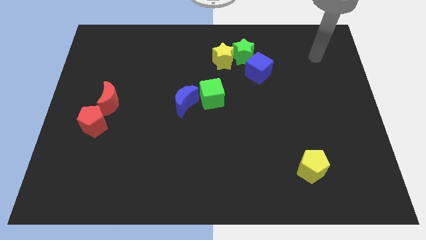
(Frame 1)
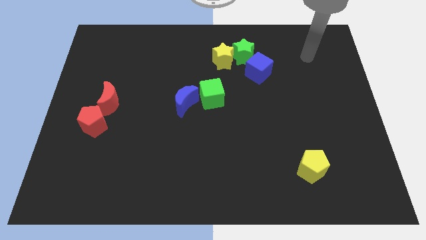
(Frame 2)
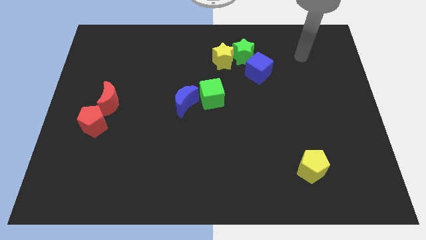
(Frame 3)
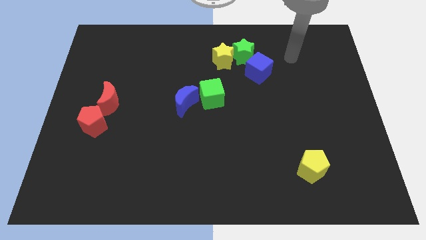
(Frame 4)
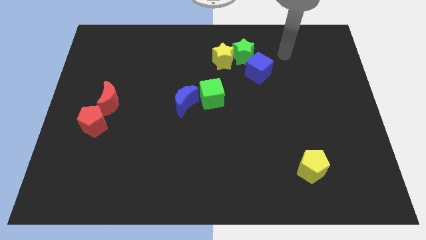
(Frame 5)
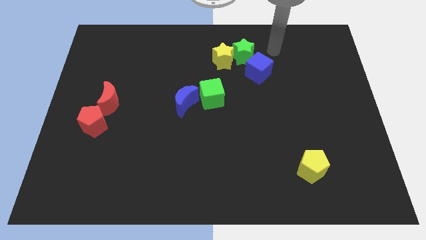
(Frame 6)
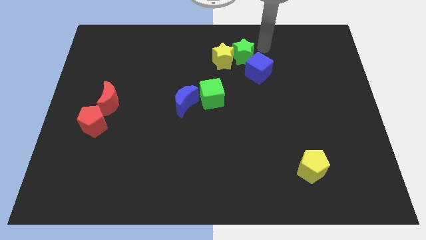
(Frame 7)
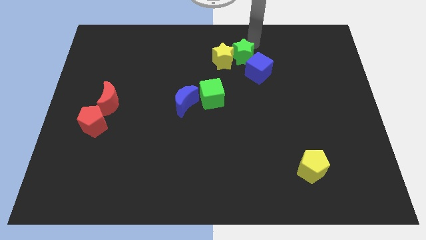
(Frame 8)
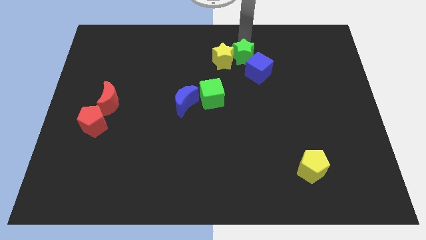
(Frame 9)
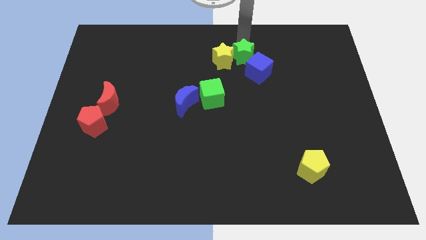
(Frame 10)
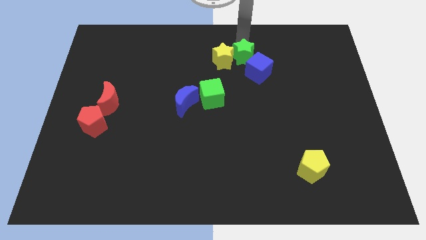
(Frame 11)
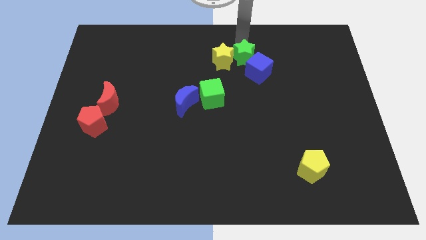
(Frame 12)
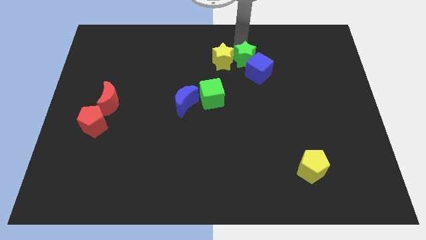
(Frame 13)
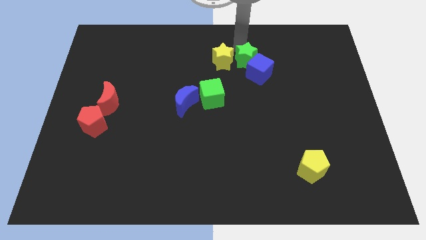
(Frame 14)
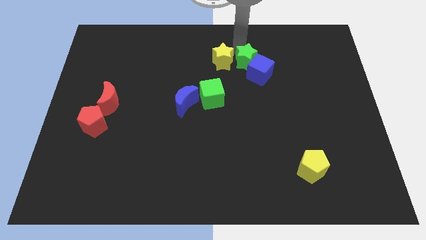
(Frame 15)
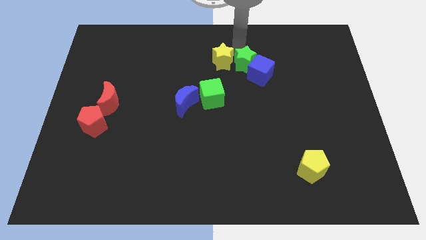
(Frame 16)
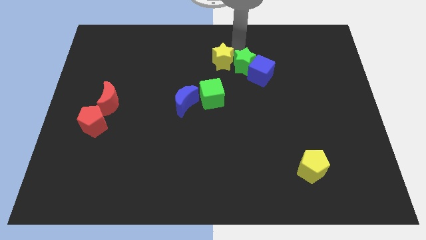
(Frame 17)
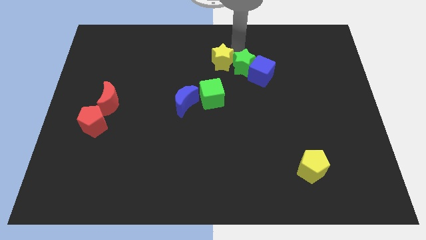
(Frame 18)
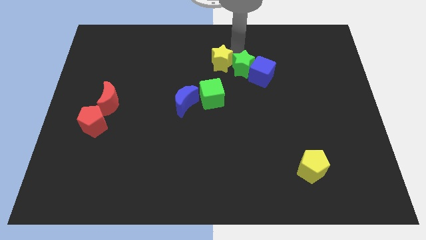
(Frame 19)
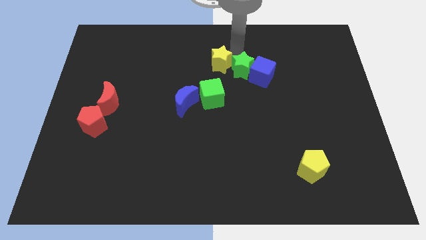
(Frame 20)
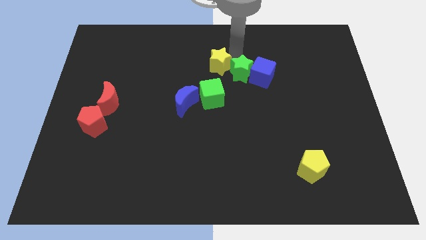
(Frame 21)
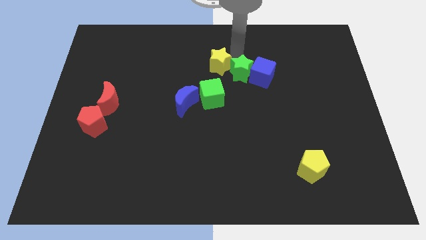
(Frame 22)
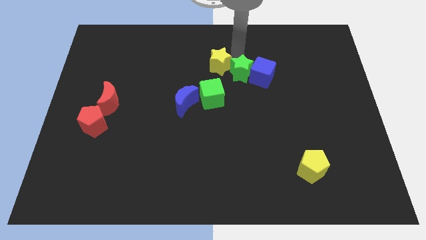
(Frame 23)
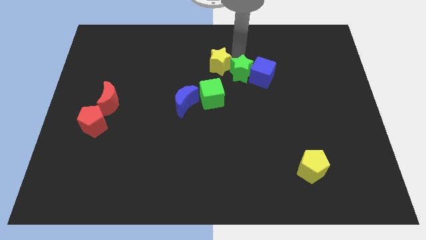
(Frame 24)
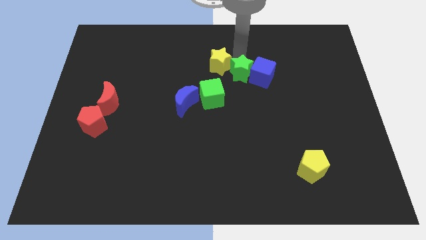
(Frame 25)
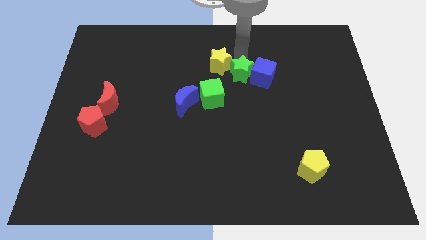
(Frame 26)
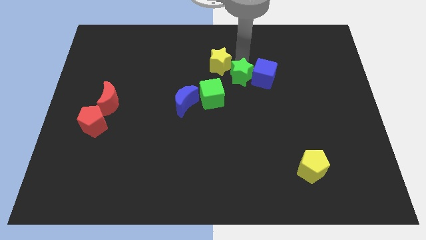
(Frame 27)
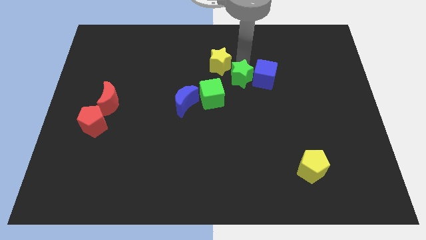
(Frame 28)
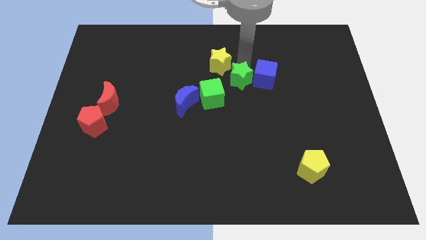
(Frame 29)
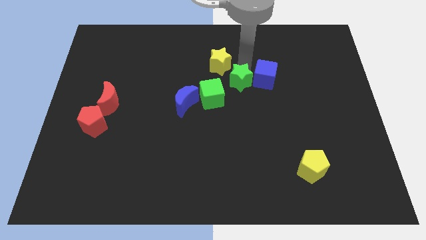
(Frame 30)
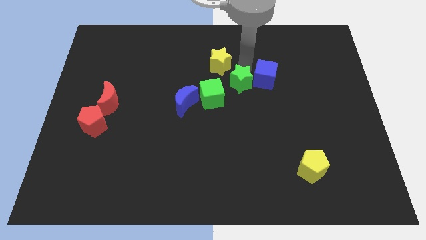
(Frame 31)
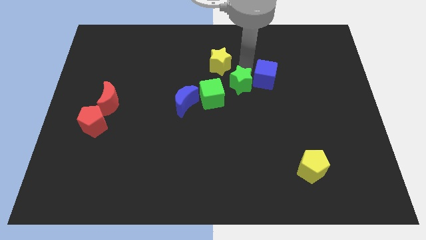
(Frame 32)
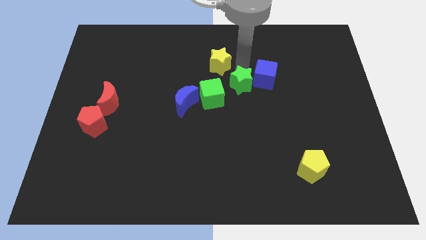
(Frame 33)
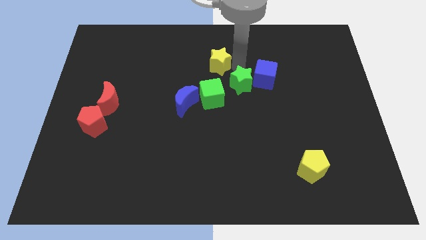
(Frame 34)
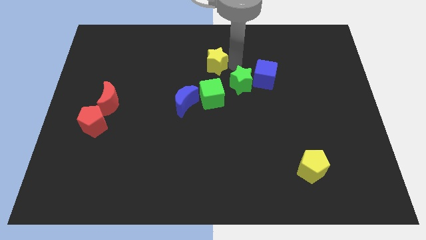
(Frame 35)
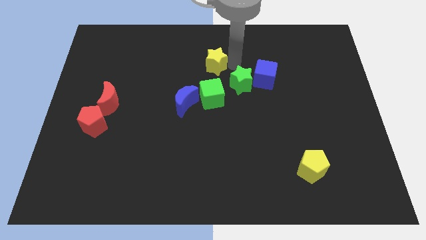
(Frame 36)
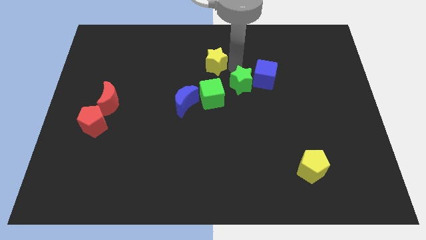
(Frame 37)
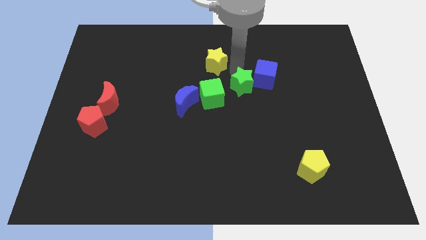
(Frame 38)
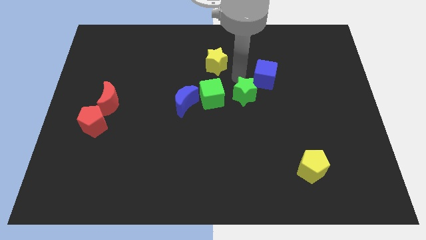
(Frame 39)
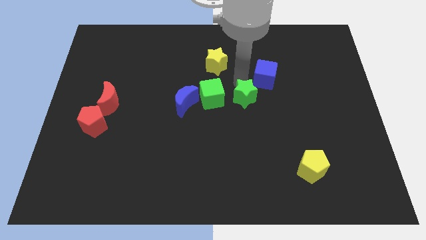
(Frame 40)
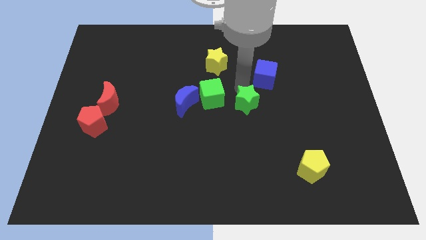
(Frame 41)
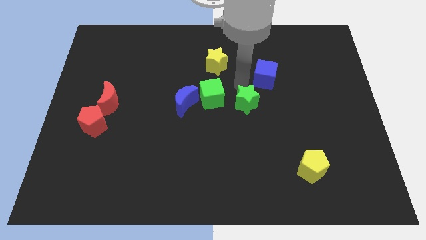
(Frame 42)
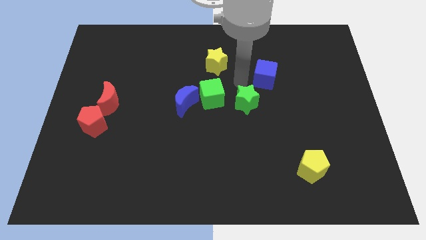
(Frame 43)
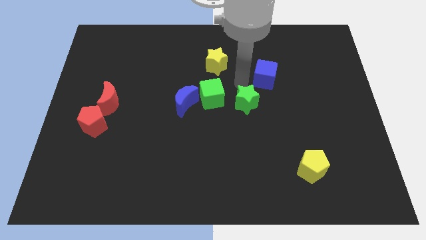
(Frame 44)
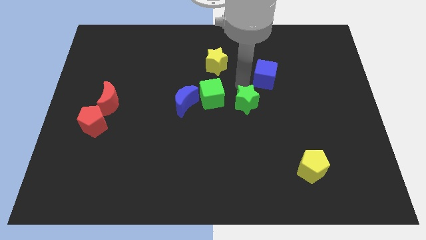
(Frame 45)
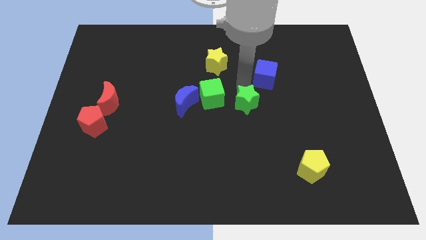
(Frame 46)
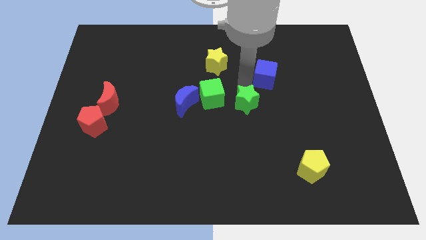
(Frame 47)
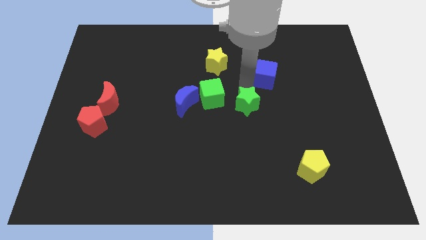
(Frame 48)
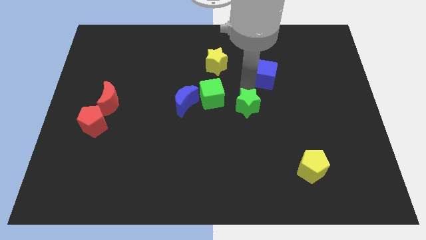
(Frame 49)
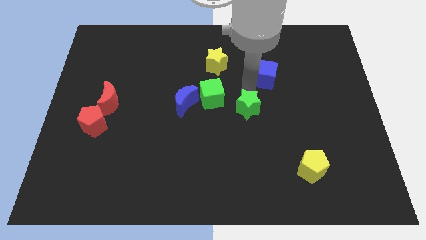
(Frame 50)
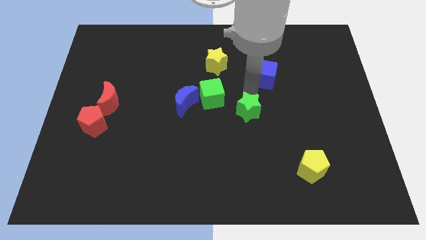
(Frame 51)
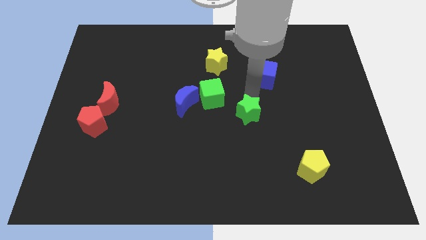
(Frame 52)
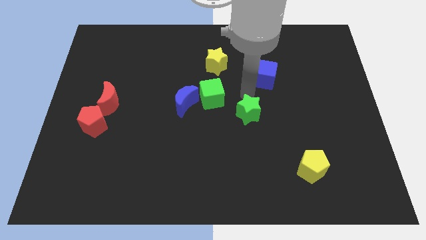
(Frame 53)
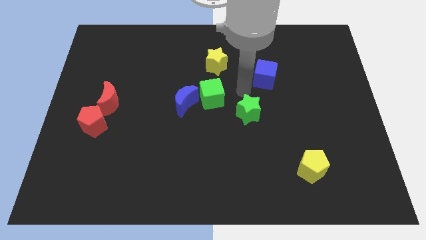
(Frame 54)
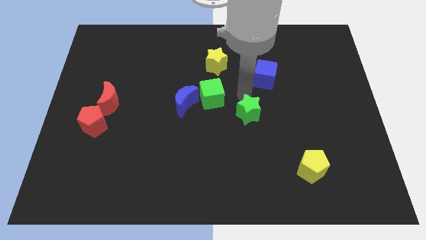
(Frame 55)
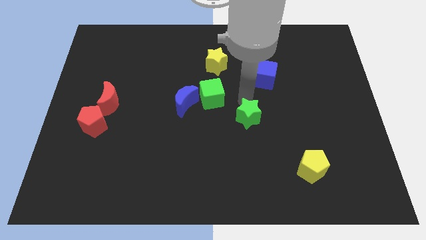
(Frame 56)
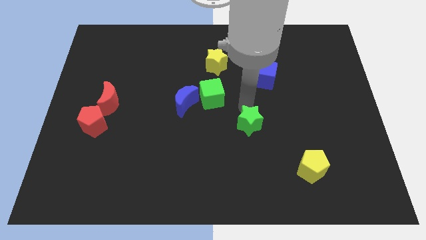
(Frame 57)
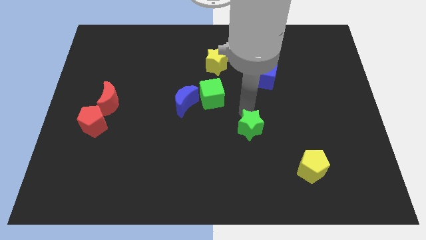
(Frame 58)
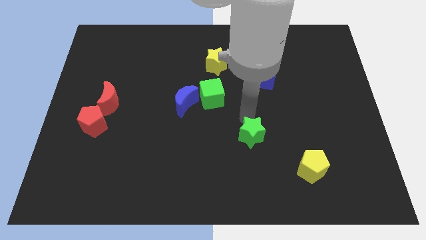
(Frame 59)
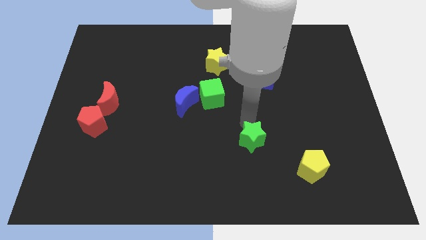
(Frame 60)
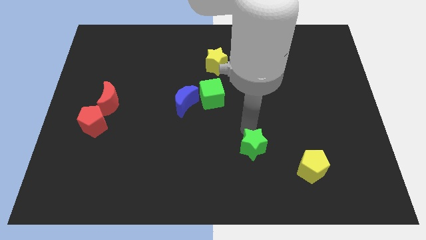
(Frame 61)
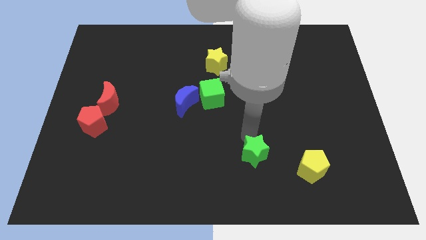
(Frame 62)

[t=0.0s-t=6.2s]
move the green star to the left side of the yellow pentagon

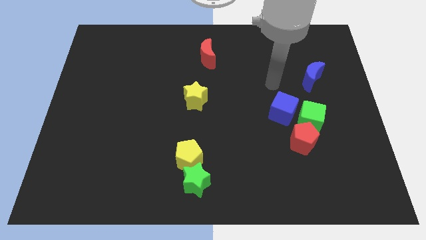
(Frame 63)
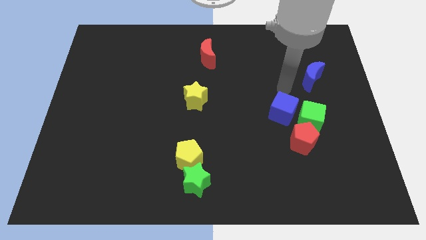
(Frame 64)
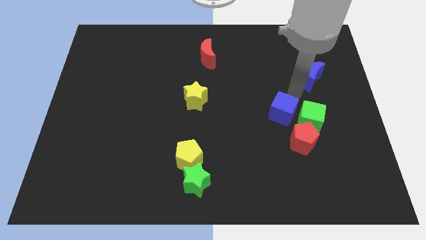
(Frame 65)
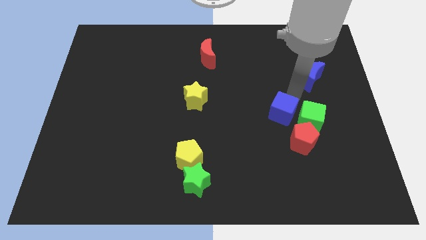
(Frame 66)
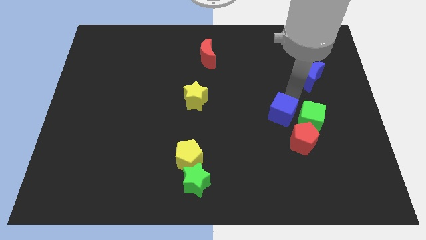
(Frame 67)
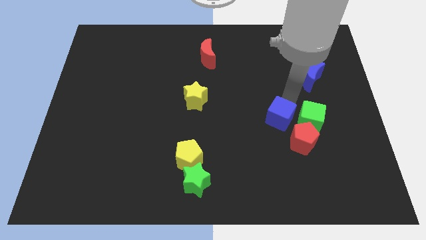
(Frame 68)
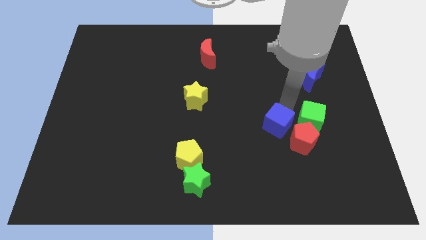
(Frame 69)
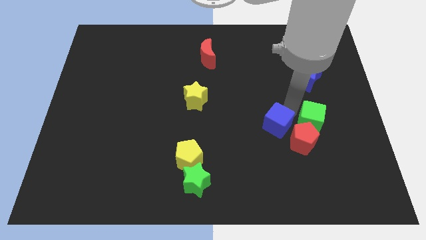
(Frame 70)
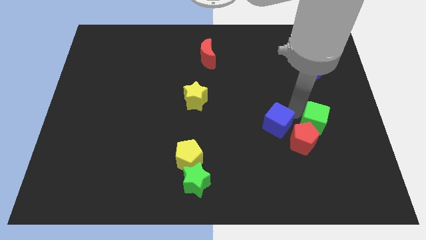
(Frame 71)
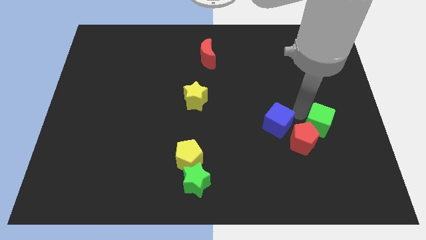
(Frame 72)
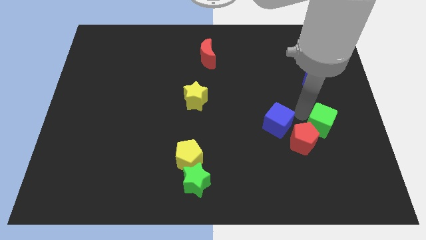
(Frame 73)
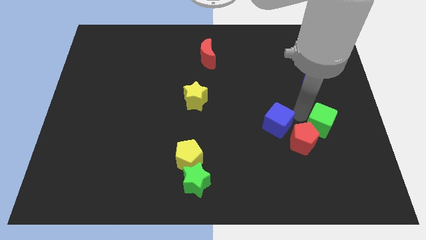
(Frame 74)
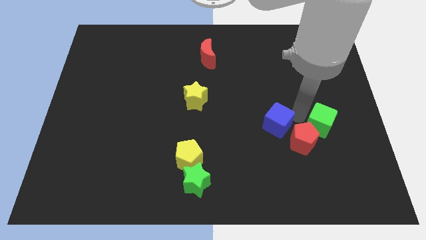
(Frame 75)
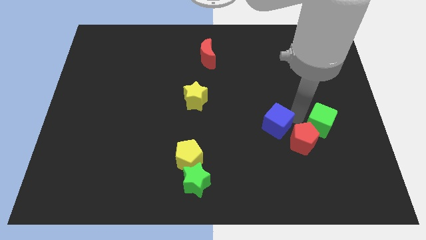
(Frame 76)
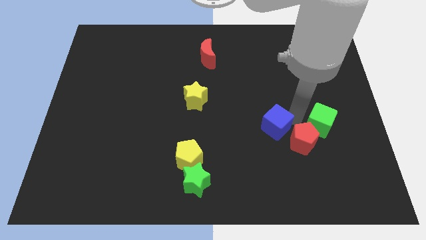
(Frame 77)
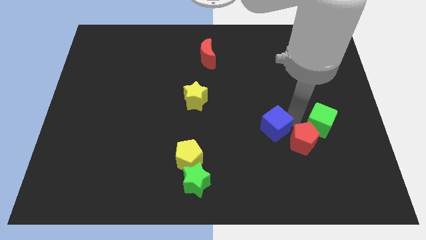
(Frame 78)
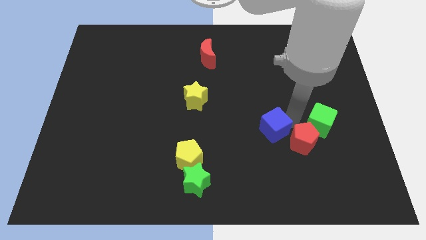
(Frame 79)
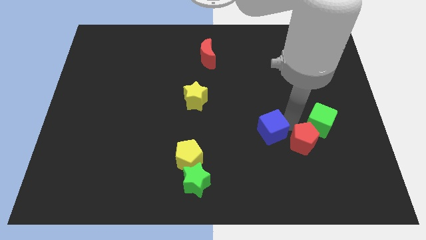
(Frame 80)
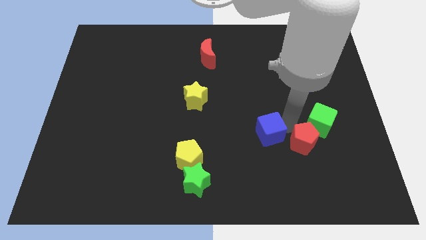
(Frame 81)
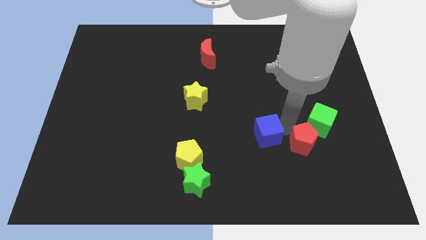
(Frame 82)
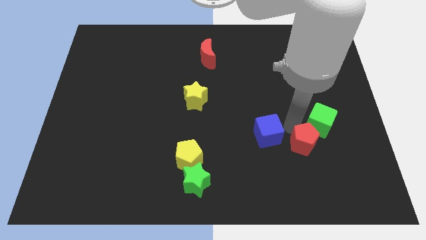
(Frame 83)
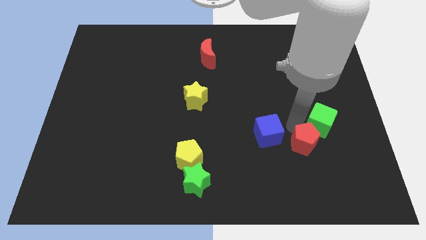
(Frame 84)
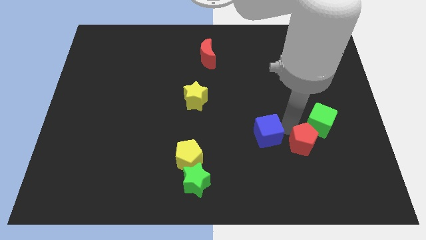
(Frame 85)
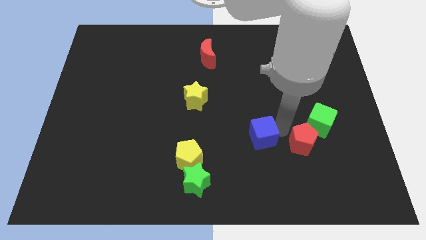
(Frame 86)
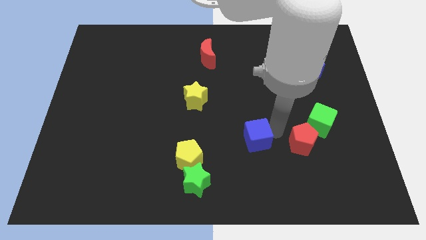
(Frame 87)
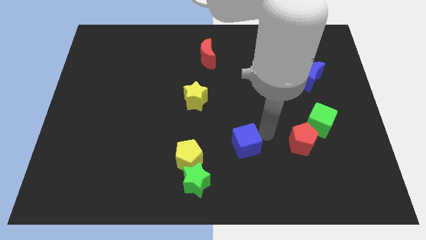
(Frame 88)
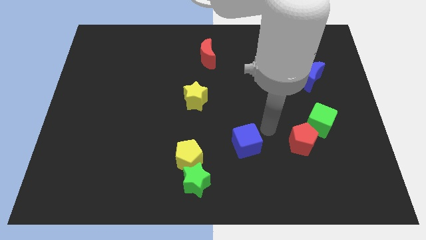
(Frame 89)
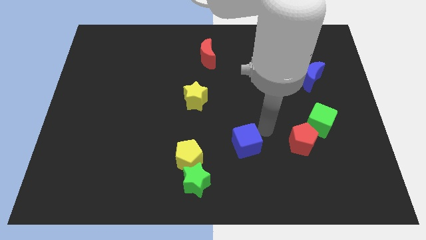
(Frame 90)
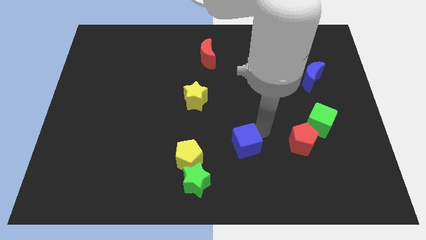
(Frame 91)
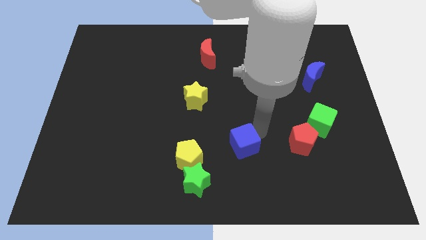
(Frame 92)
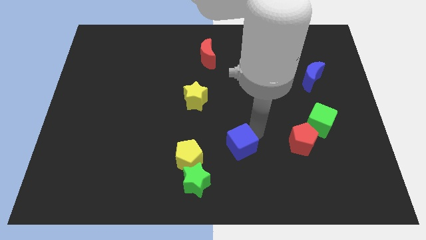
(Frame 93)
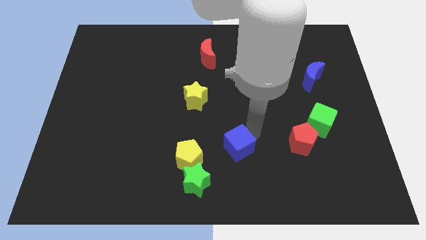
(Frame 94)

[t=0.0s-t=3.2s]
slide the blue cube to the top right side of the green star
